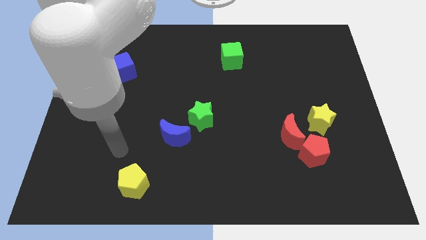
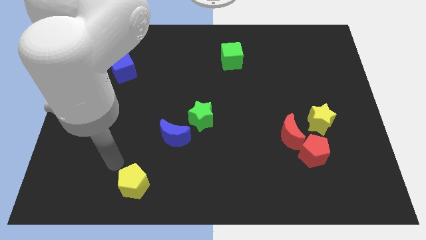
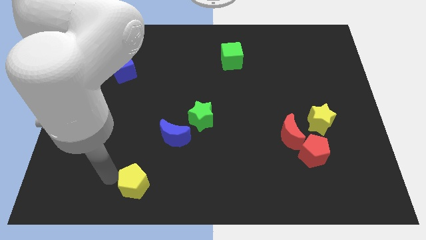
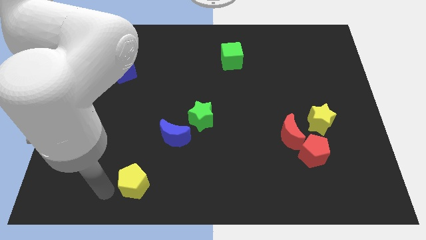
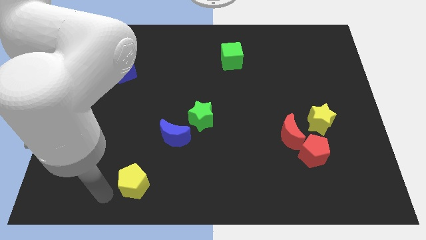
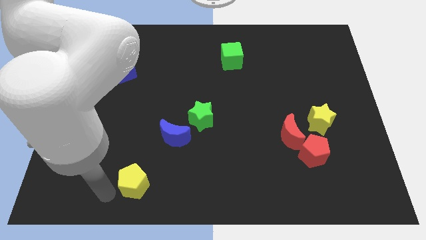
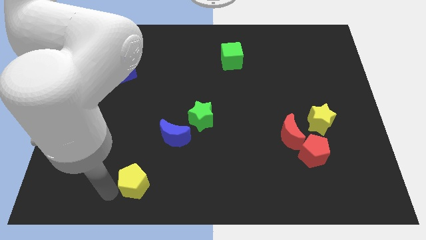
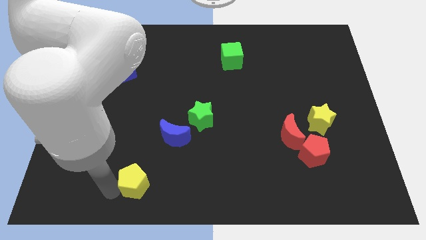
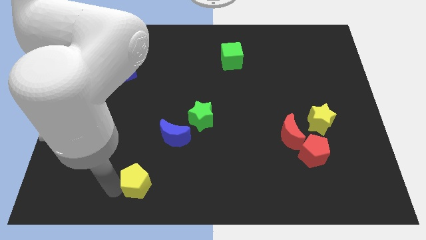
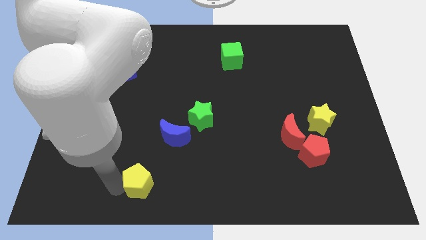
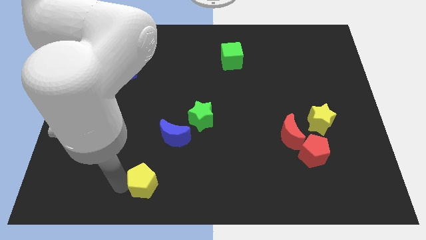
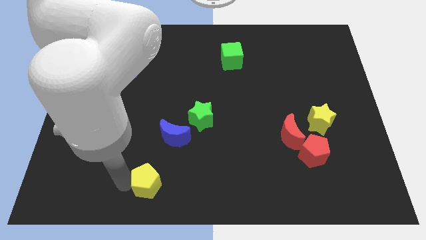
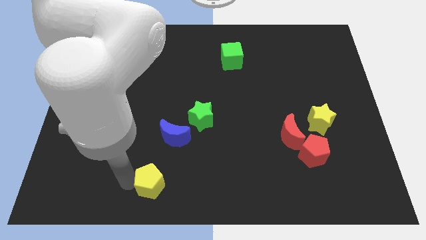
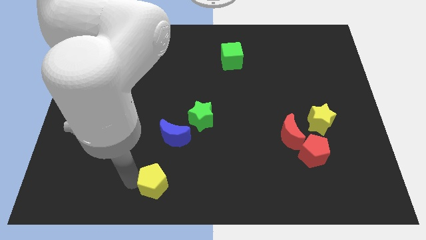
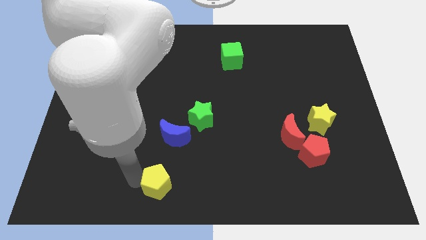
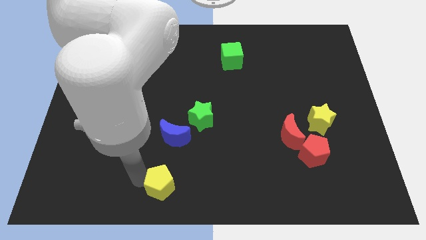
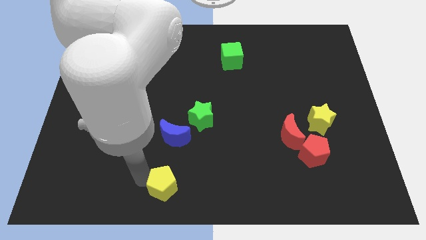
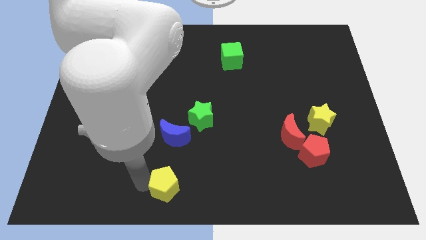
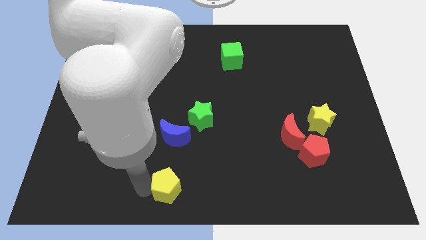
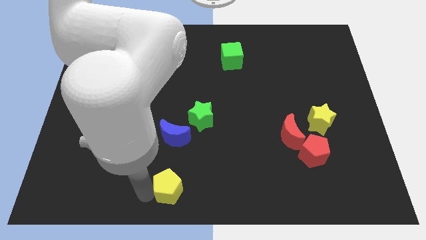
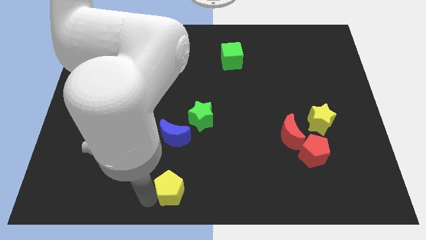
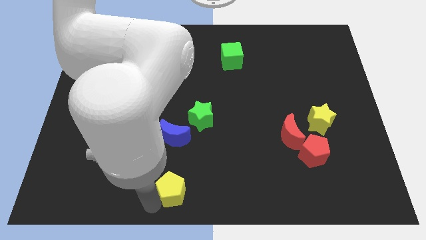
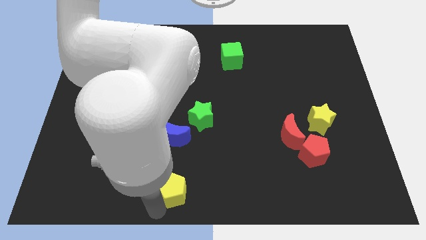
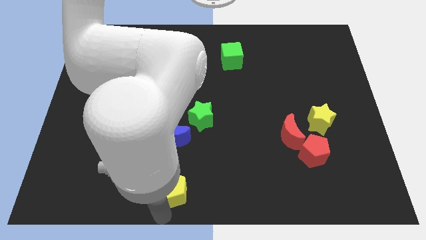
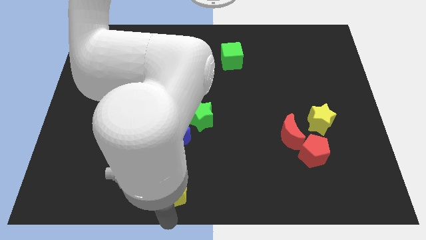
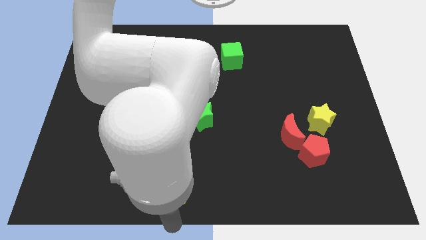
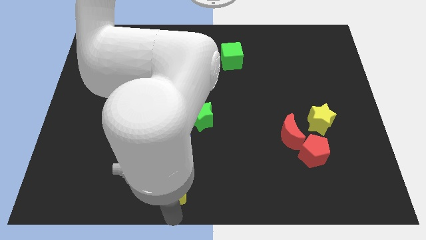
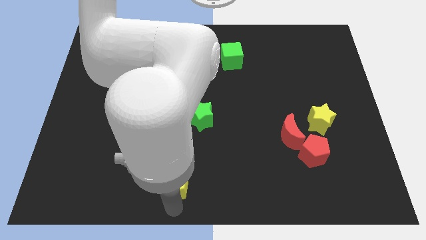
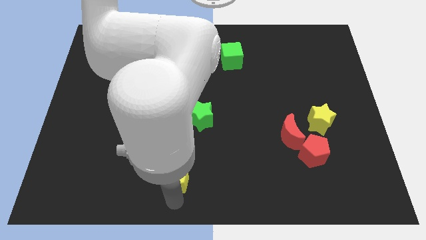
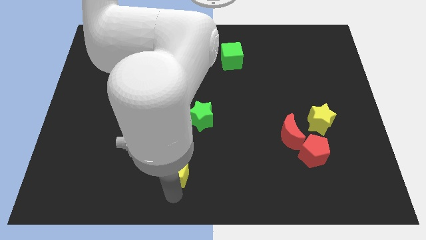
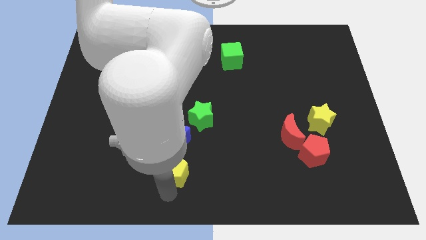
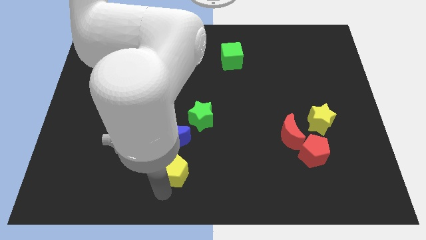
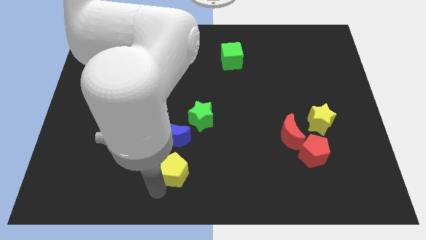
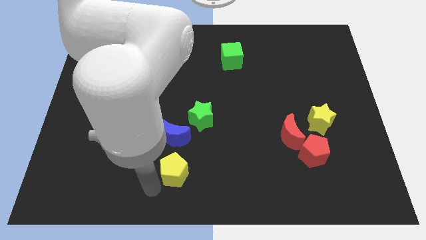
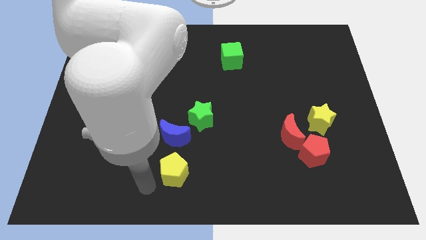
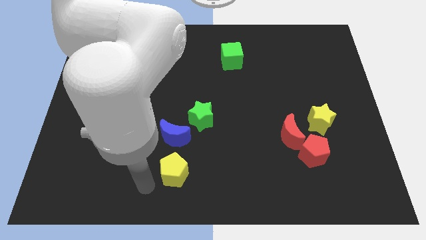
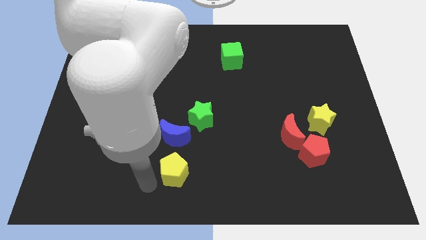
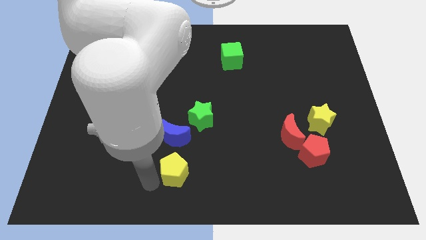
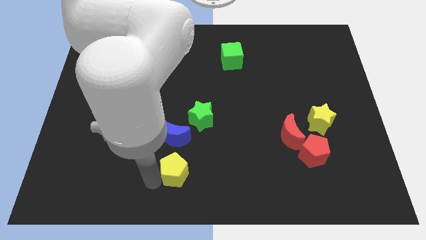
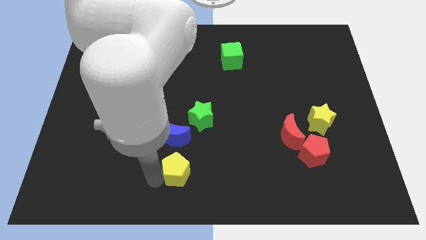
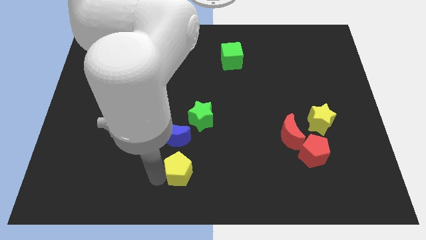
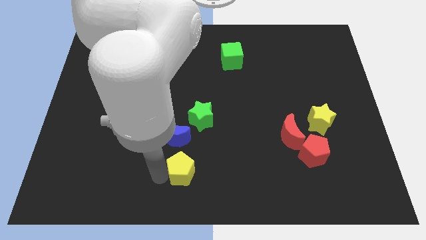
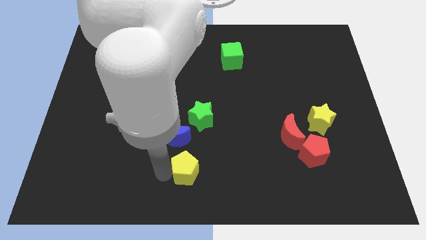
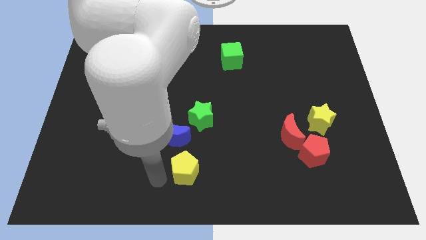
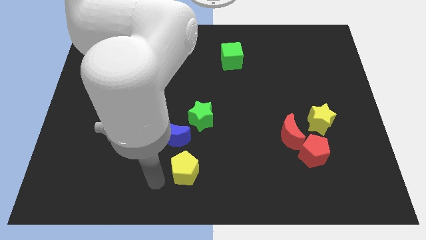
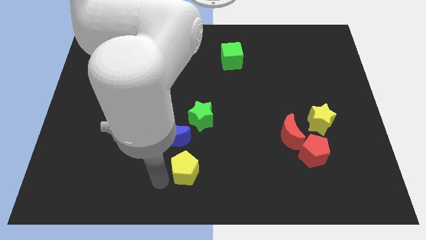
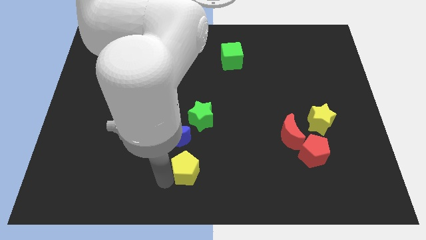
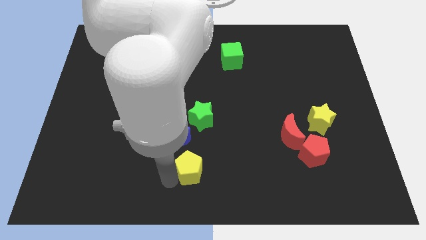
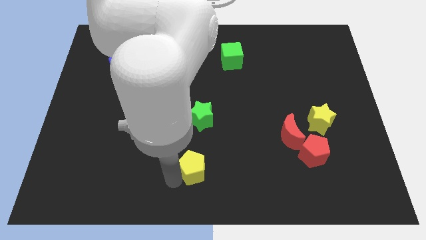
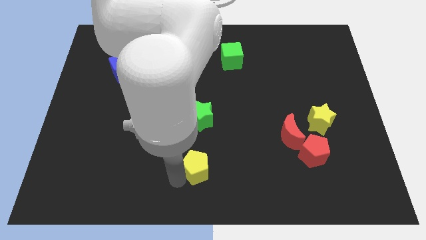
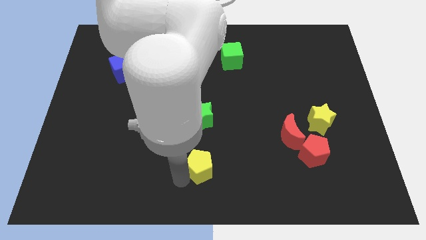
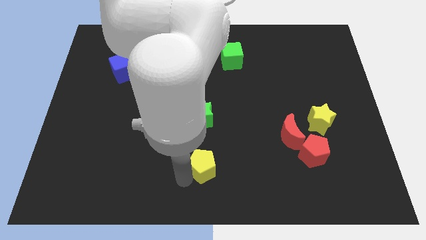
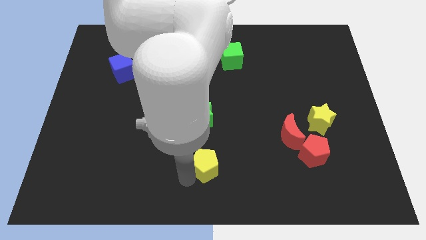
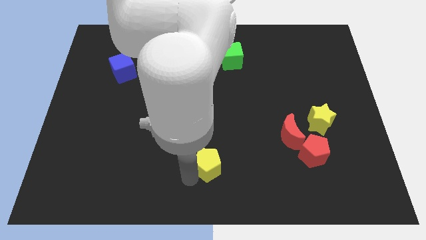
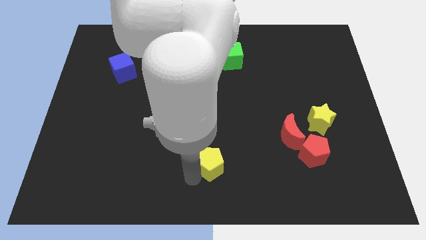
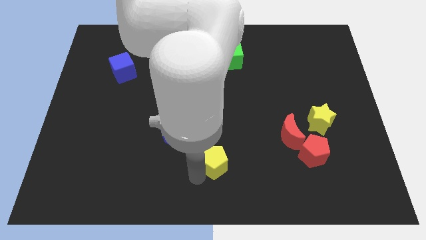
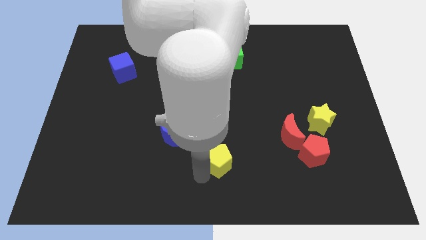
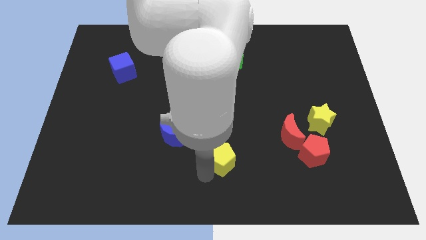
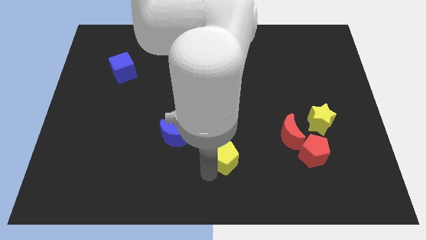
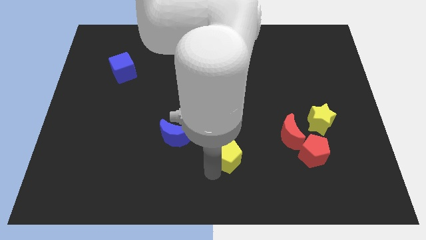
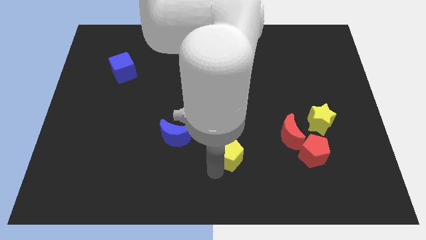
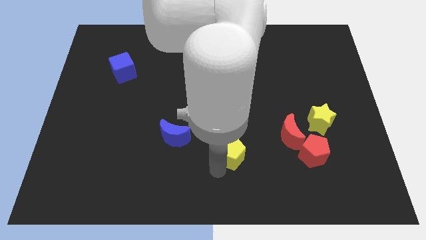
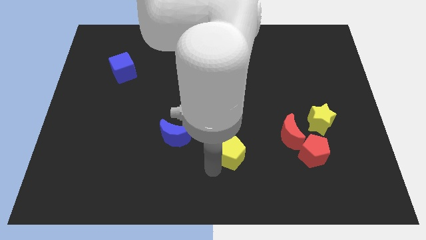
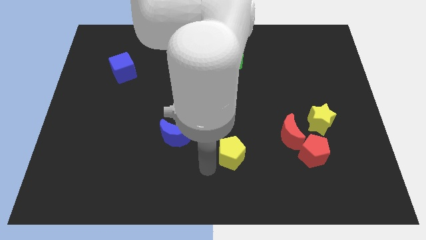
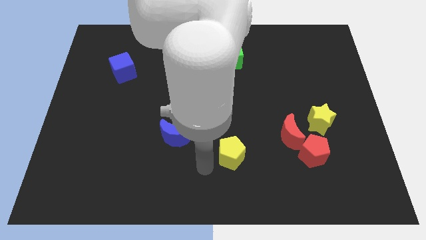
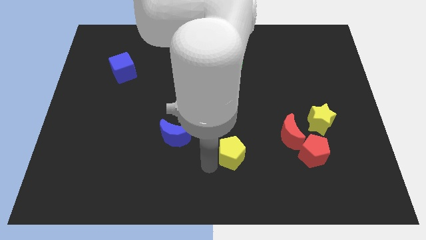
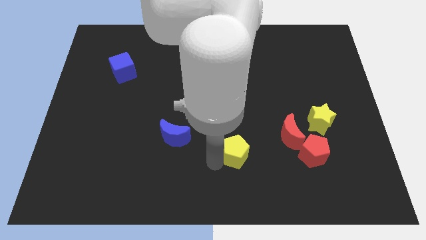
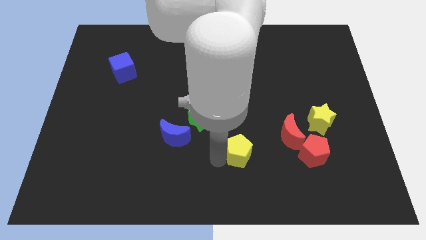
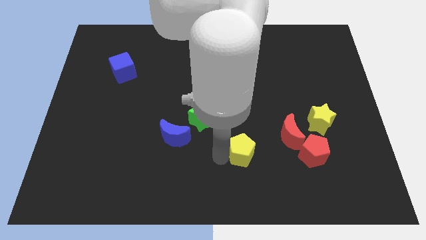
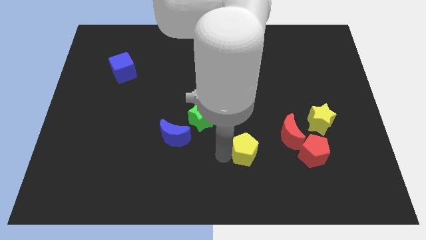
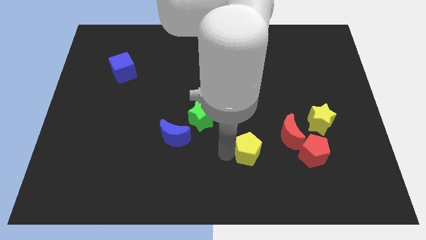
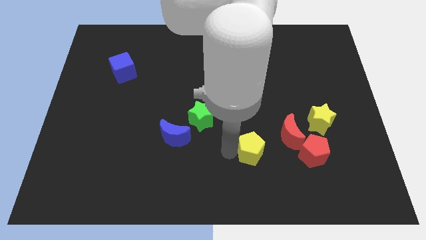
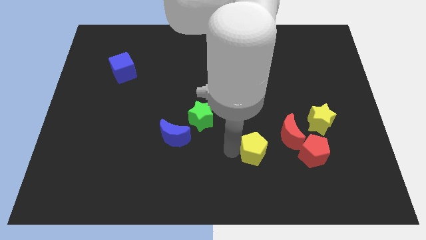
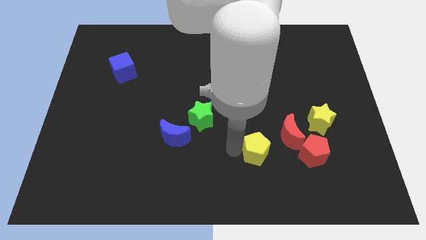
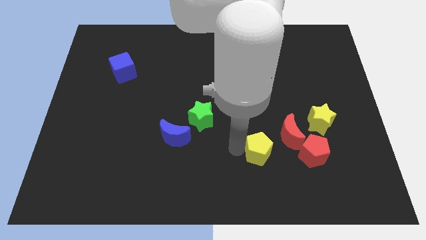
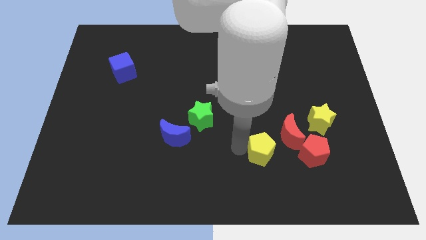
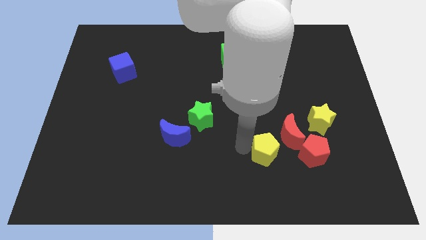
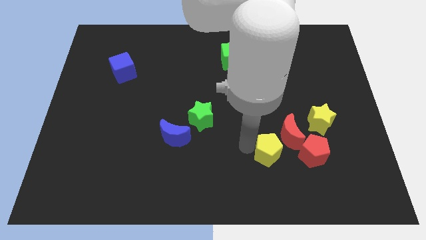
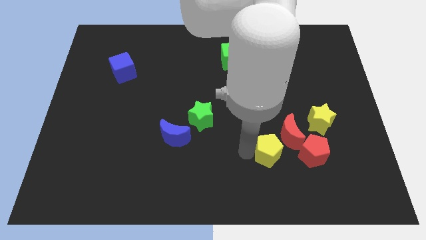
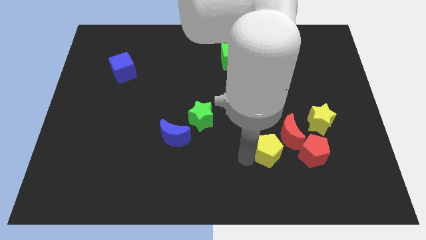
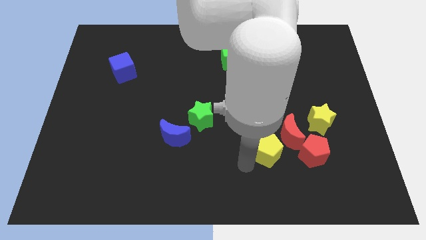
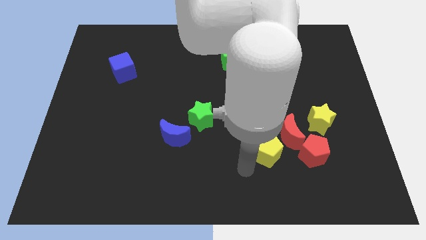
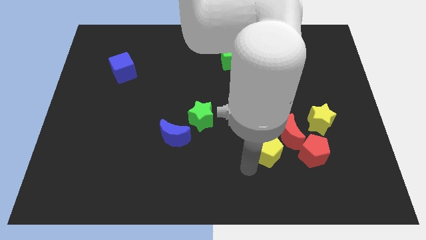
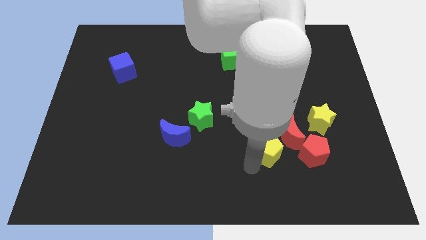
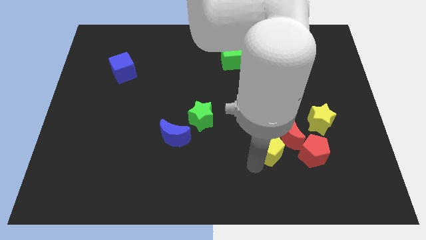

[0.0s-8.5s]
move the yellow pentagon close to the red moon
